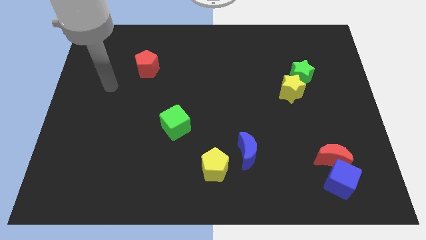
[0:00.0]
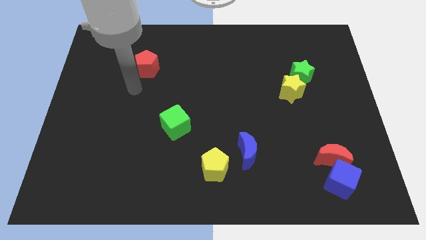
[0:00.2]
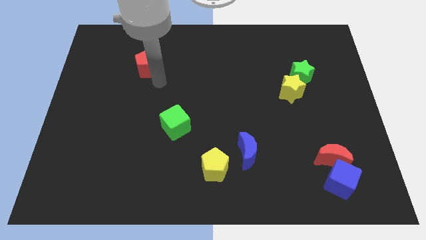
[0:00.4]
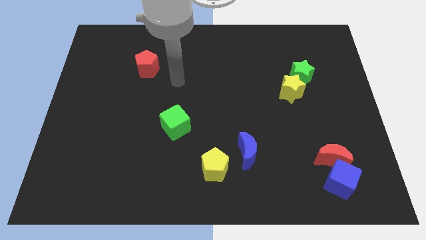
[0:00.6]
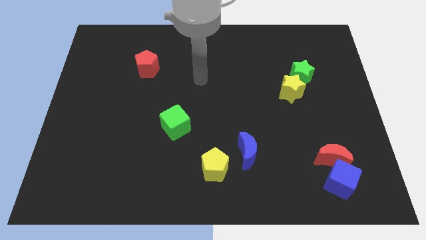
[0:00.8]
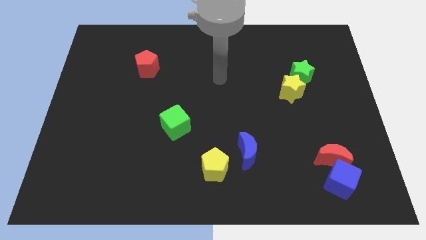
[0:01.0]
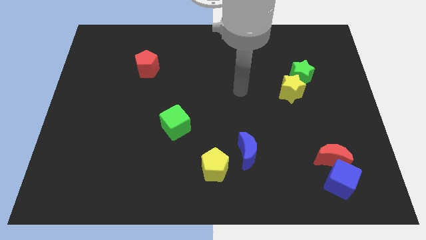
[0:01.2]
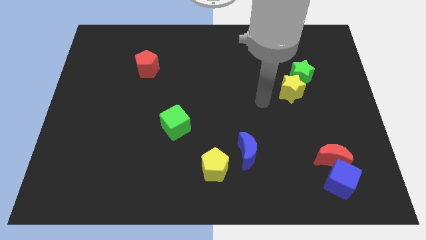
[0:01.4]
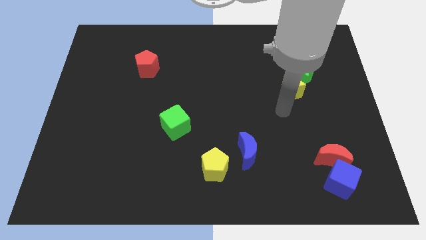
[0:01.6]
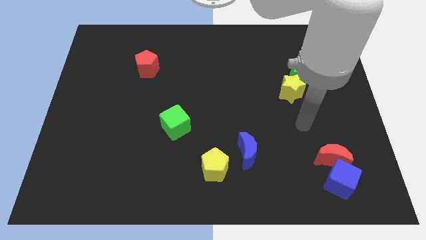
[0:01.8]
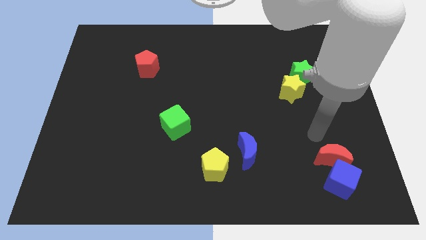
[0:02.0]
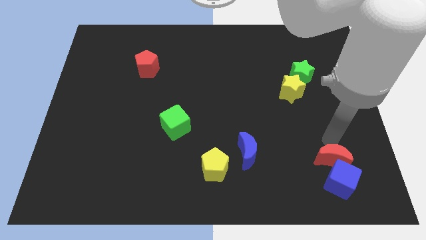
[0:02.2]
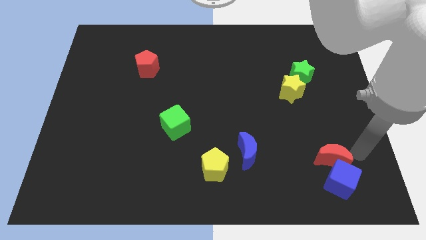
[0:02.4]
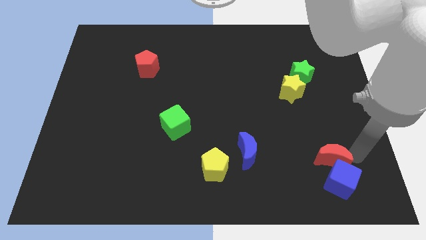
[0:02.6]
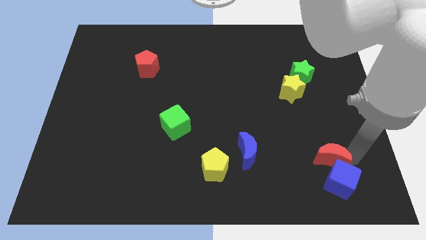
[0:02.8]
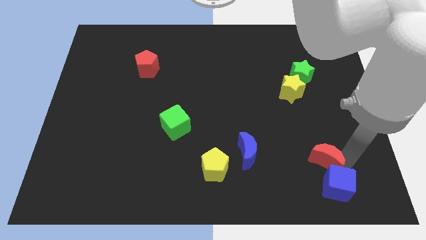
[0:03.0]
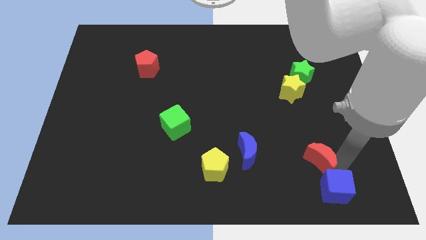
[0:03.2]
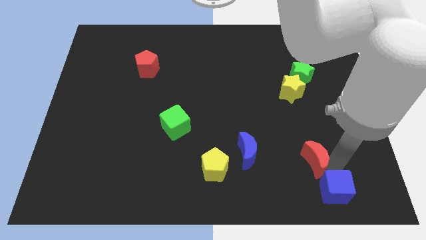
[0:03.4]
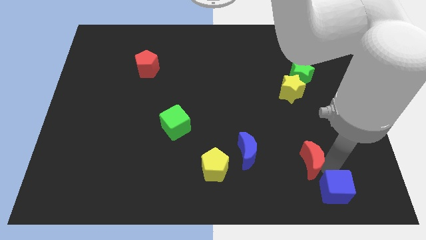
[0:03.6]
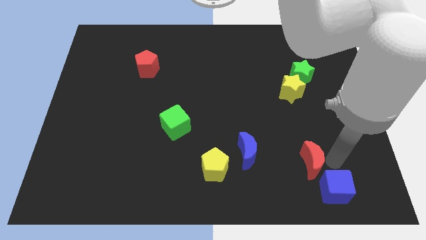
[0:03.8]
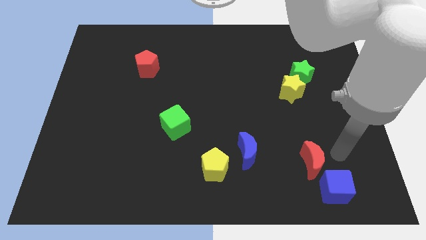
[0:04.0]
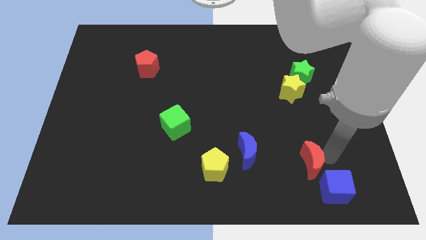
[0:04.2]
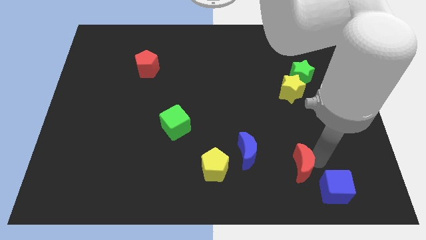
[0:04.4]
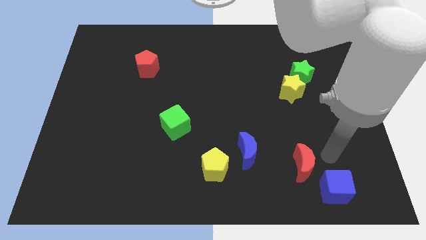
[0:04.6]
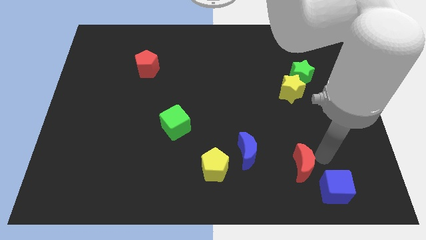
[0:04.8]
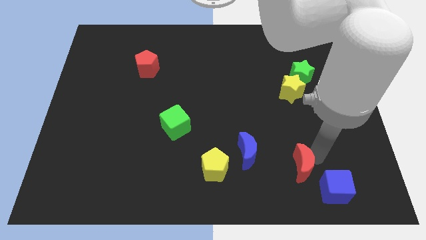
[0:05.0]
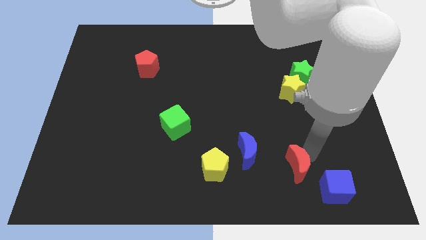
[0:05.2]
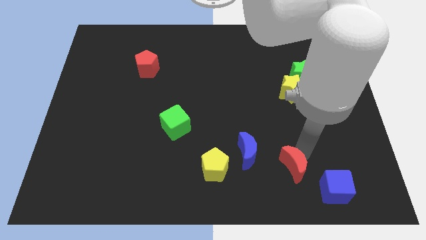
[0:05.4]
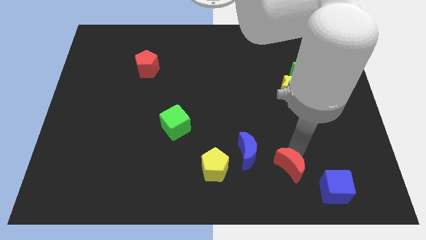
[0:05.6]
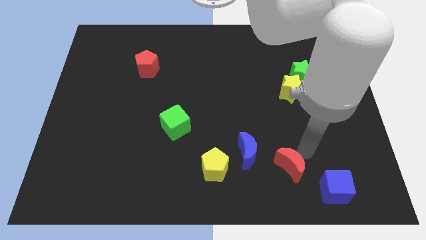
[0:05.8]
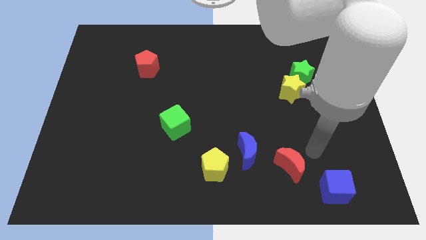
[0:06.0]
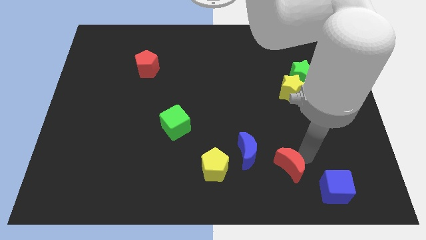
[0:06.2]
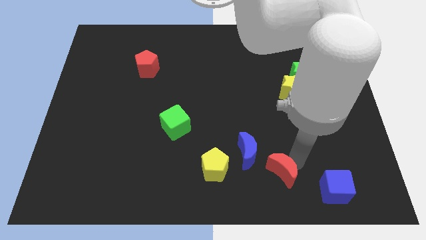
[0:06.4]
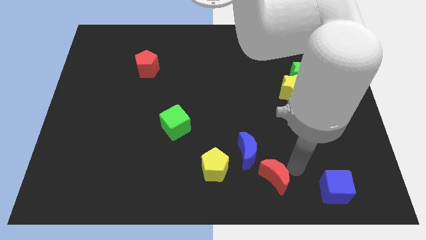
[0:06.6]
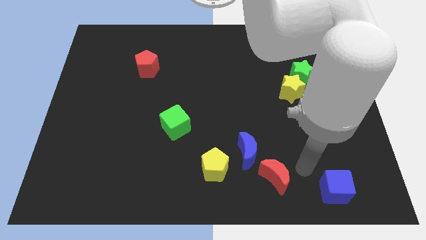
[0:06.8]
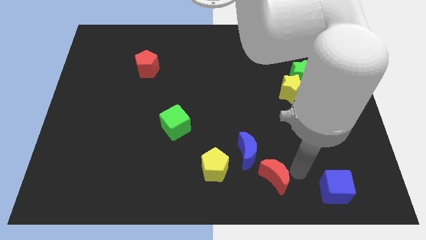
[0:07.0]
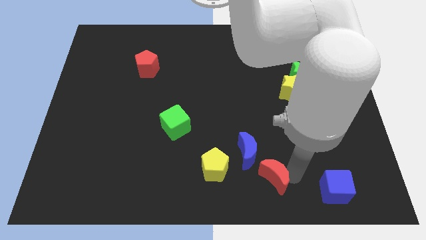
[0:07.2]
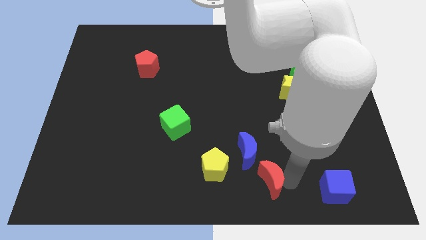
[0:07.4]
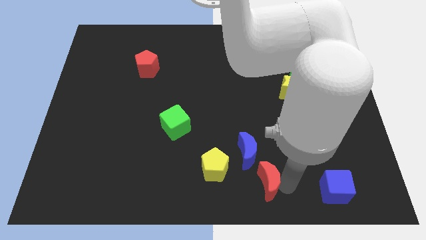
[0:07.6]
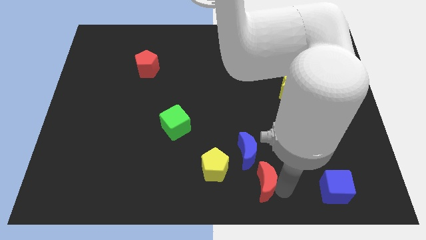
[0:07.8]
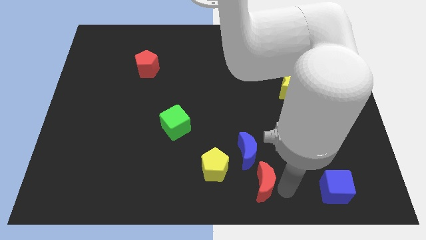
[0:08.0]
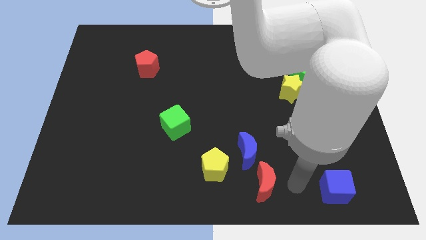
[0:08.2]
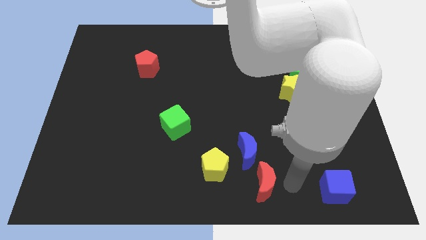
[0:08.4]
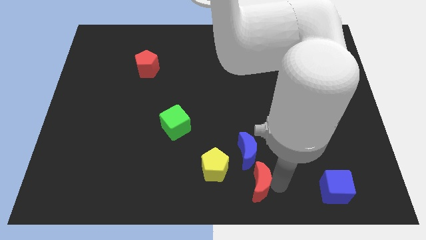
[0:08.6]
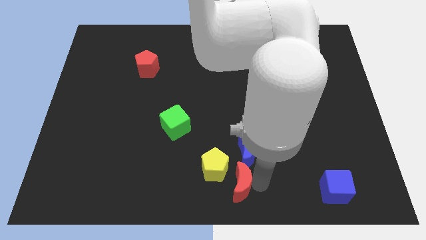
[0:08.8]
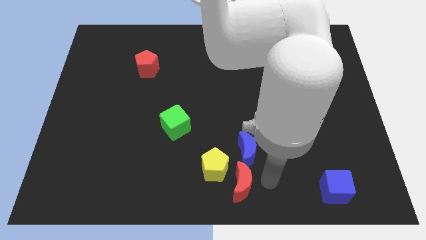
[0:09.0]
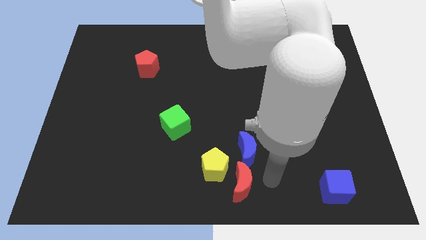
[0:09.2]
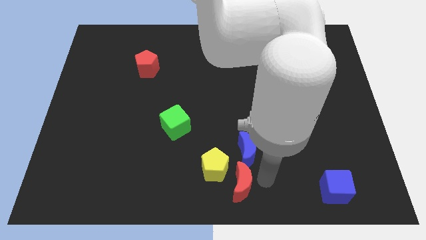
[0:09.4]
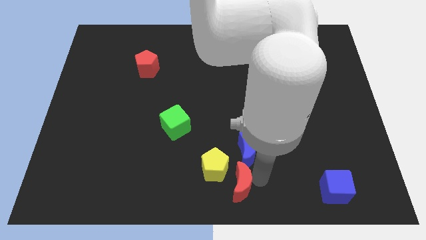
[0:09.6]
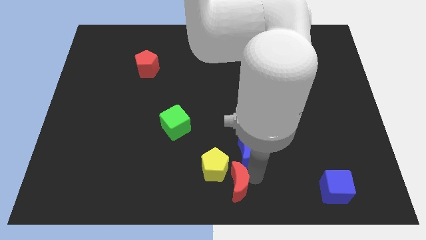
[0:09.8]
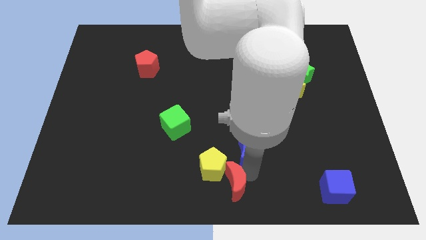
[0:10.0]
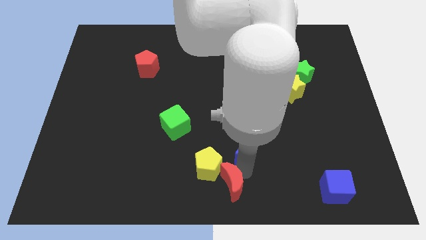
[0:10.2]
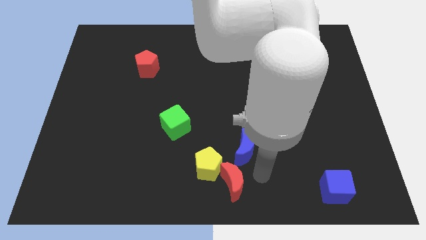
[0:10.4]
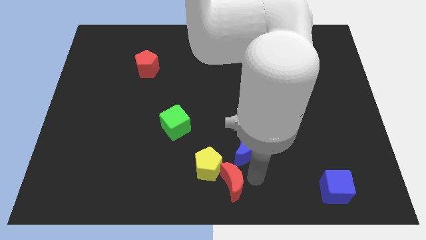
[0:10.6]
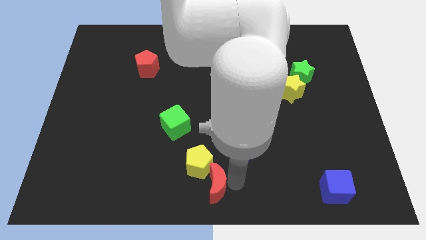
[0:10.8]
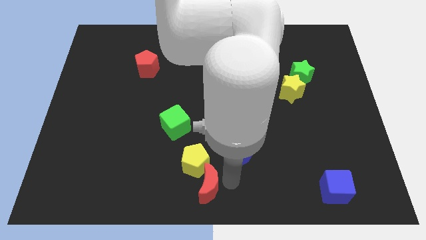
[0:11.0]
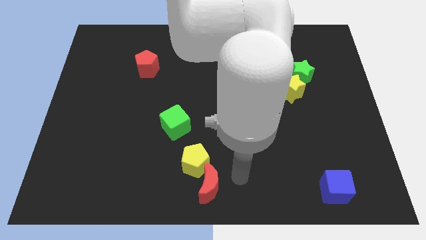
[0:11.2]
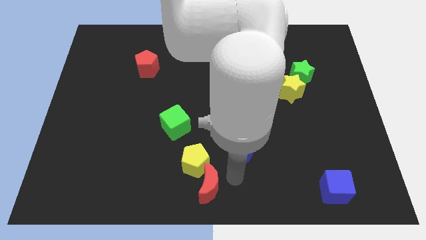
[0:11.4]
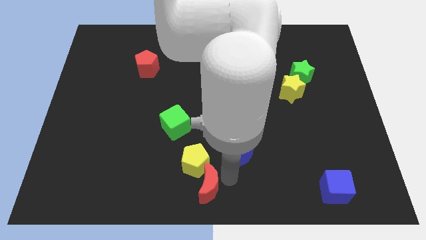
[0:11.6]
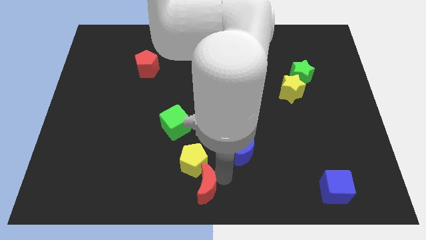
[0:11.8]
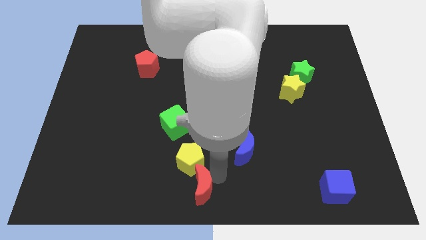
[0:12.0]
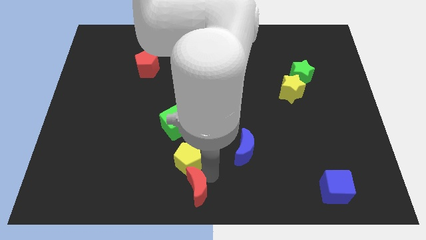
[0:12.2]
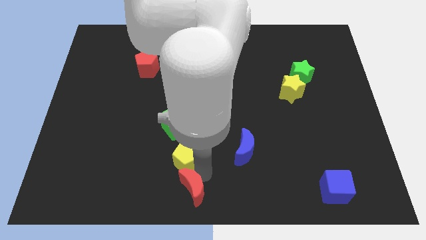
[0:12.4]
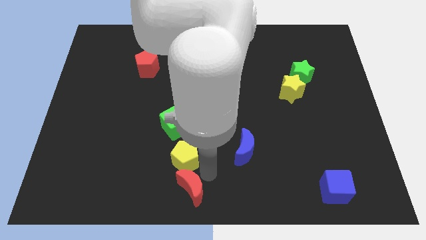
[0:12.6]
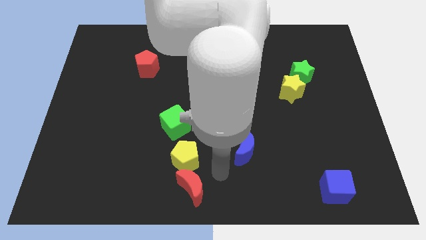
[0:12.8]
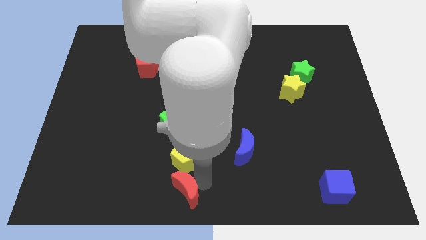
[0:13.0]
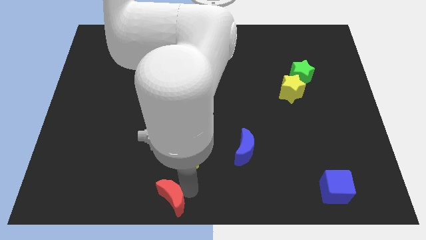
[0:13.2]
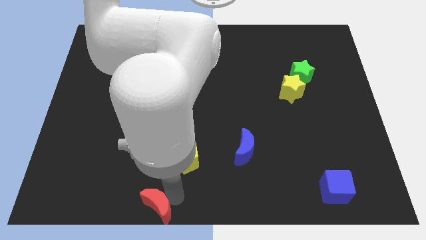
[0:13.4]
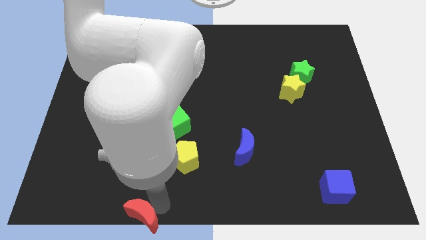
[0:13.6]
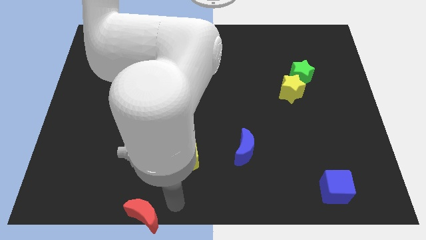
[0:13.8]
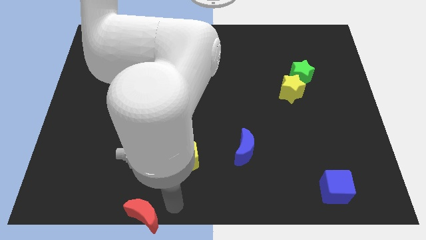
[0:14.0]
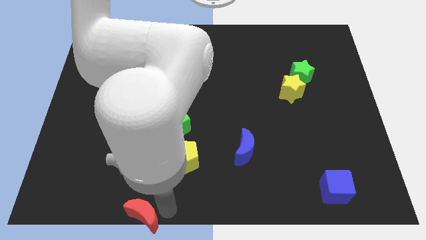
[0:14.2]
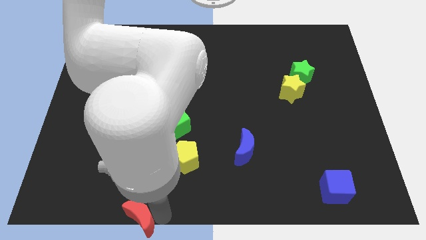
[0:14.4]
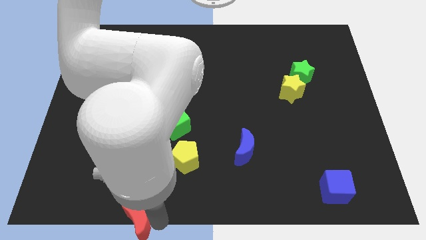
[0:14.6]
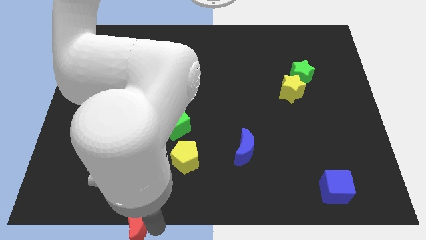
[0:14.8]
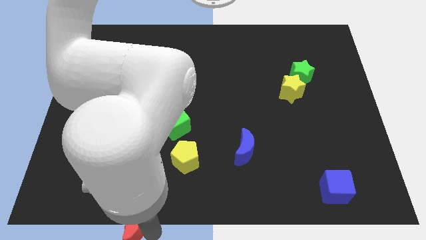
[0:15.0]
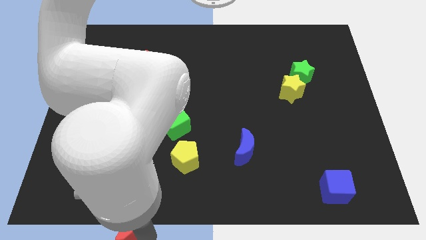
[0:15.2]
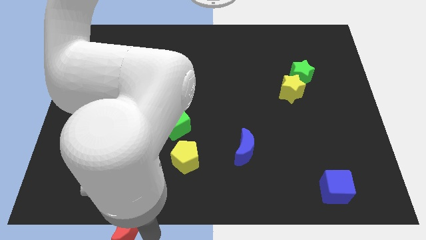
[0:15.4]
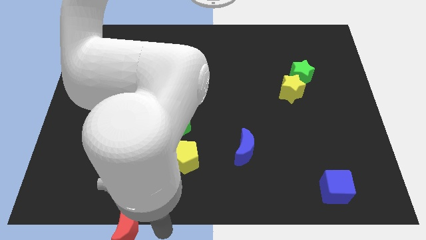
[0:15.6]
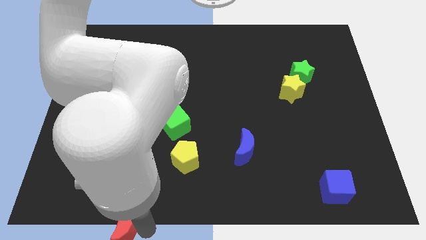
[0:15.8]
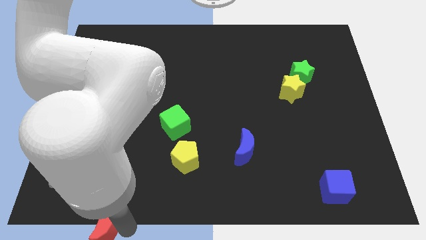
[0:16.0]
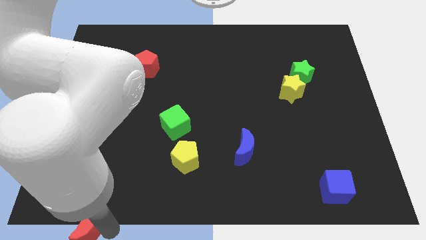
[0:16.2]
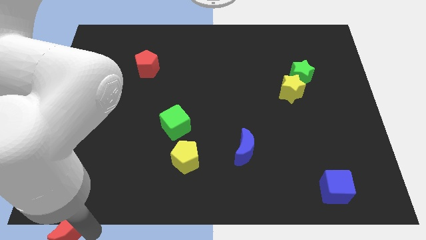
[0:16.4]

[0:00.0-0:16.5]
push the red moon to the bottom left corner
